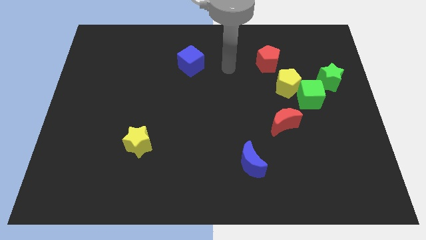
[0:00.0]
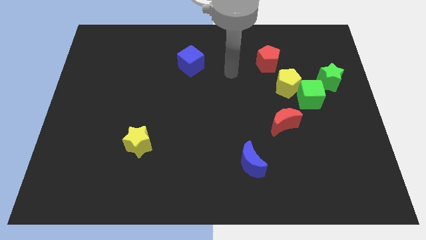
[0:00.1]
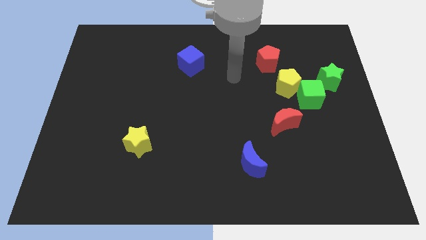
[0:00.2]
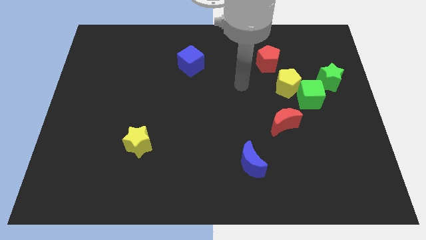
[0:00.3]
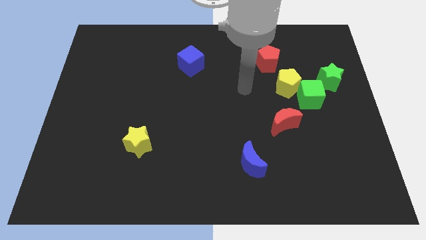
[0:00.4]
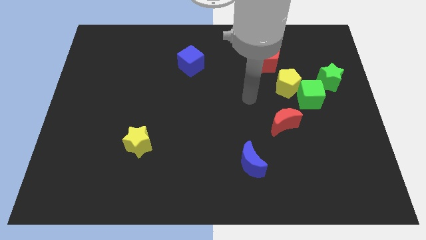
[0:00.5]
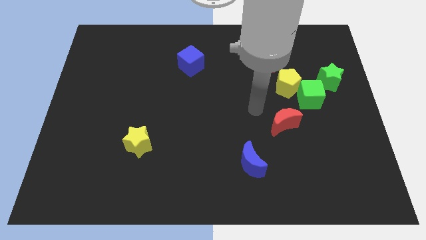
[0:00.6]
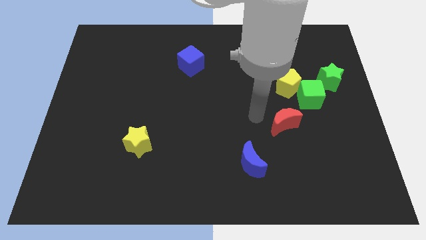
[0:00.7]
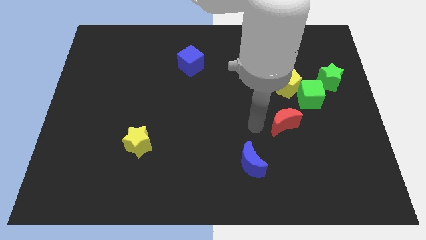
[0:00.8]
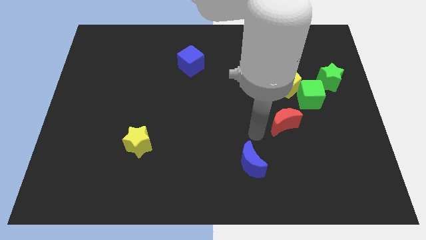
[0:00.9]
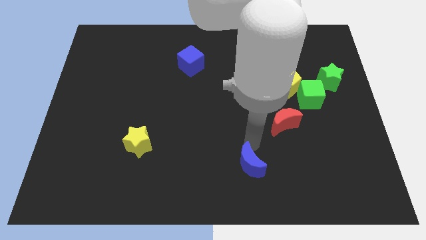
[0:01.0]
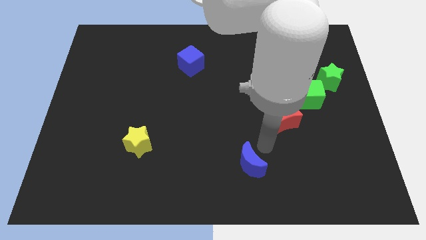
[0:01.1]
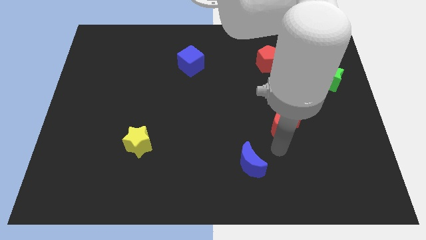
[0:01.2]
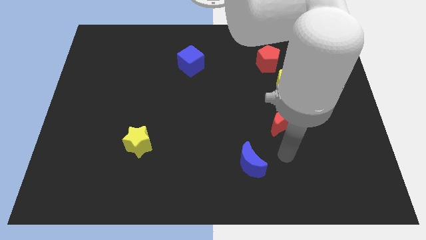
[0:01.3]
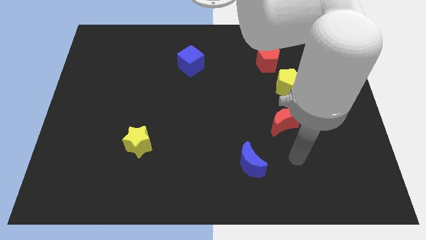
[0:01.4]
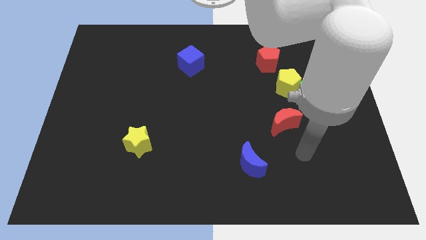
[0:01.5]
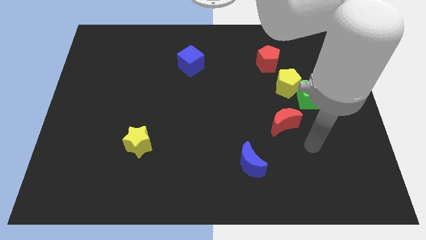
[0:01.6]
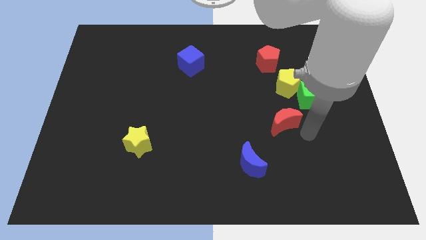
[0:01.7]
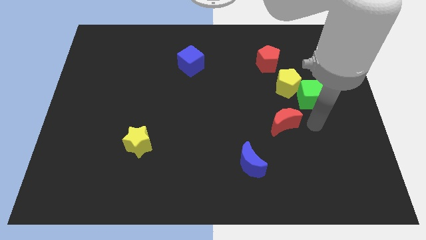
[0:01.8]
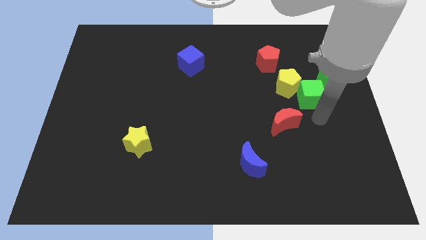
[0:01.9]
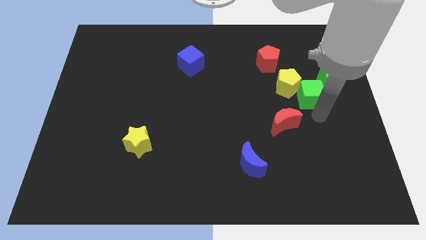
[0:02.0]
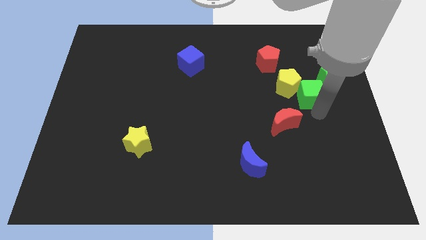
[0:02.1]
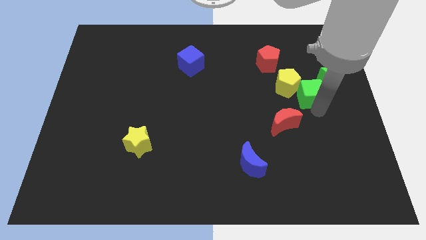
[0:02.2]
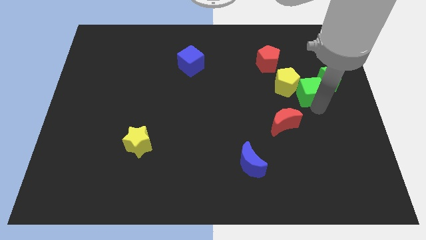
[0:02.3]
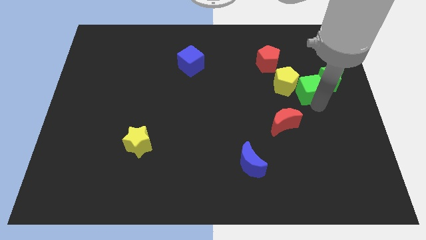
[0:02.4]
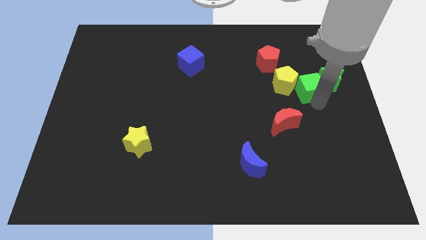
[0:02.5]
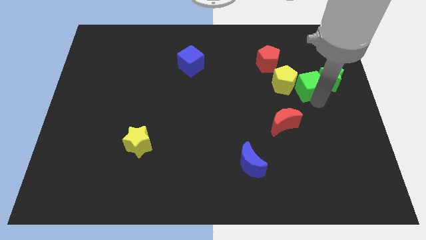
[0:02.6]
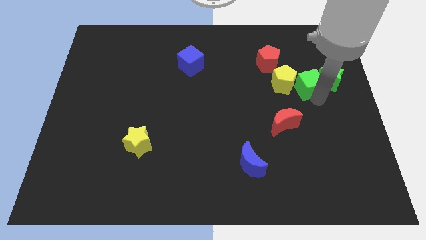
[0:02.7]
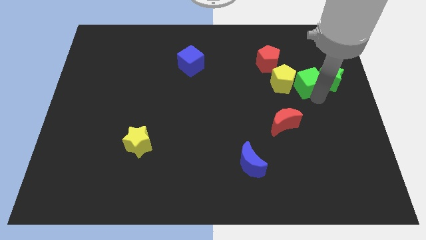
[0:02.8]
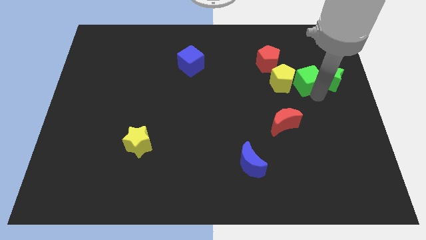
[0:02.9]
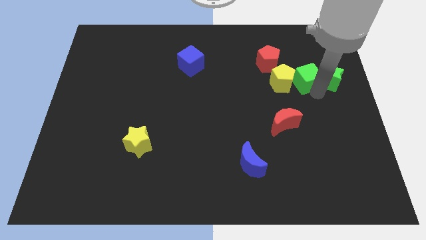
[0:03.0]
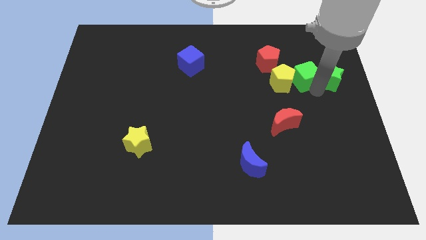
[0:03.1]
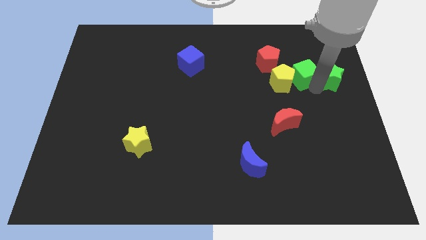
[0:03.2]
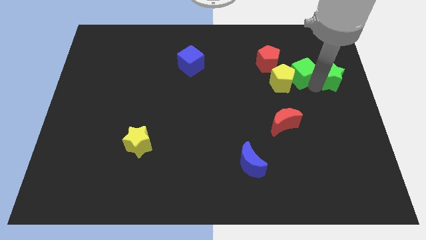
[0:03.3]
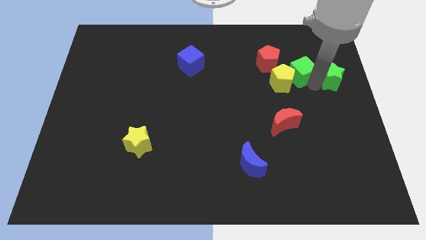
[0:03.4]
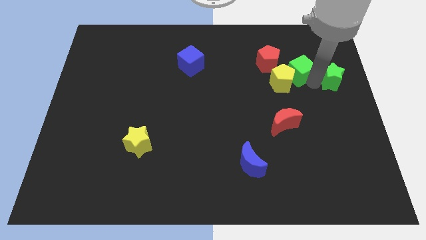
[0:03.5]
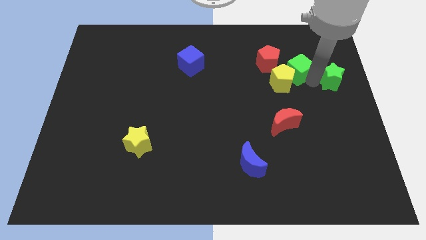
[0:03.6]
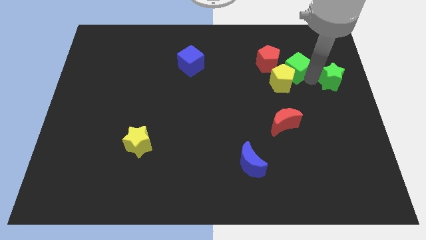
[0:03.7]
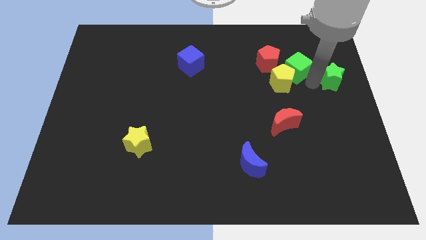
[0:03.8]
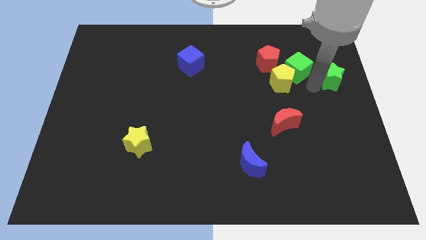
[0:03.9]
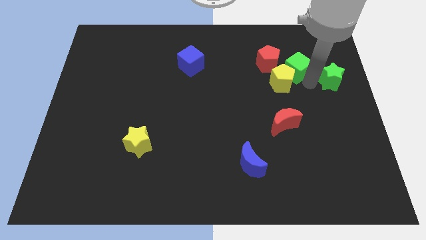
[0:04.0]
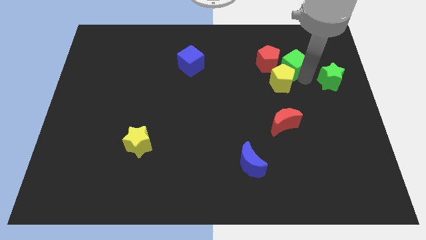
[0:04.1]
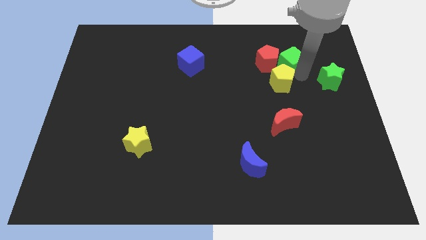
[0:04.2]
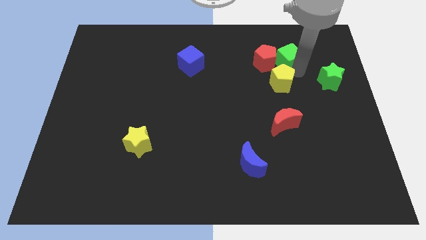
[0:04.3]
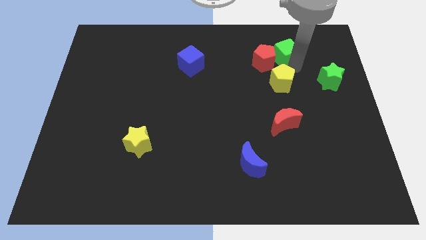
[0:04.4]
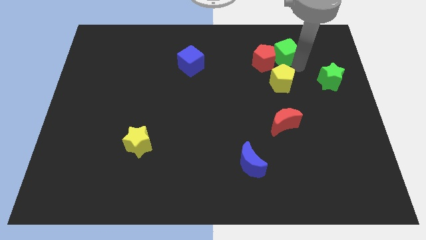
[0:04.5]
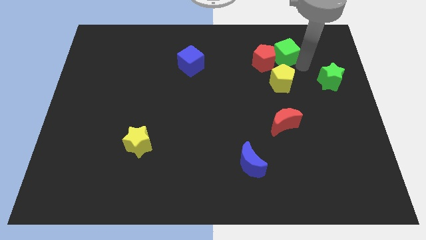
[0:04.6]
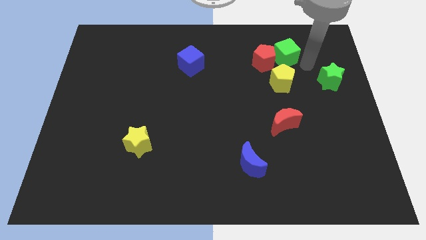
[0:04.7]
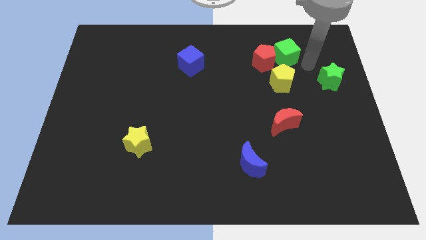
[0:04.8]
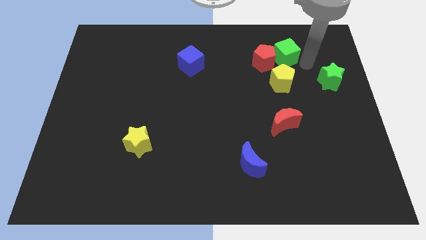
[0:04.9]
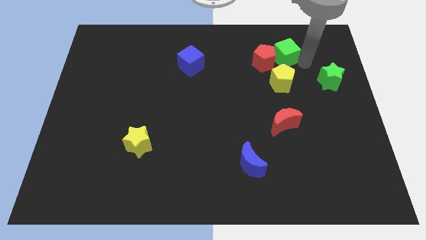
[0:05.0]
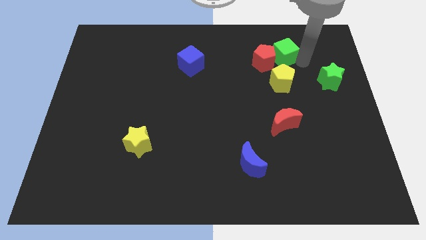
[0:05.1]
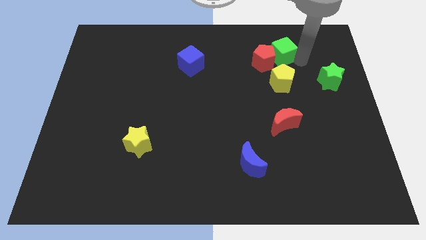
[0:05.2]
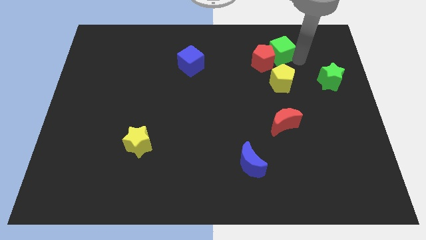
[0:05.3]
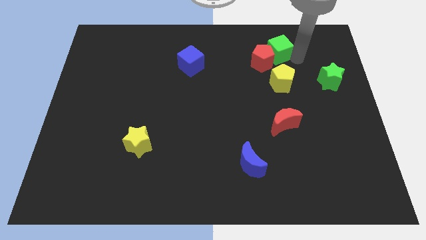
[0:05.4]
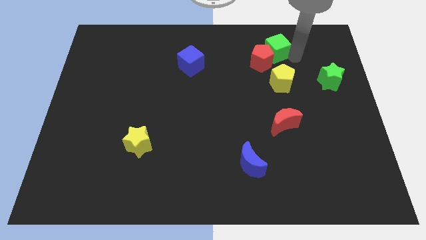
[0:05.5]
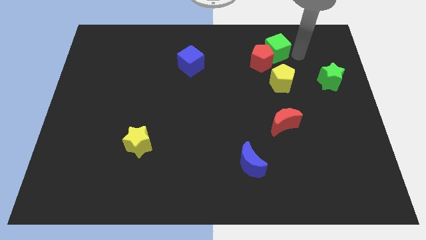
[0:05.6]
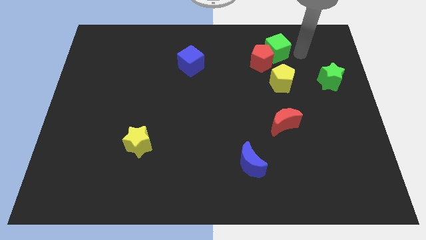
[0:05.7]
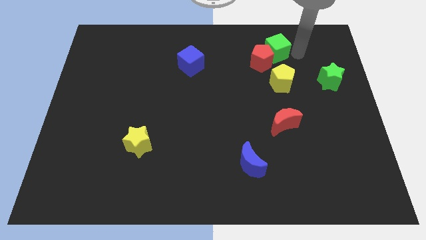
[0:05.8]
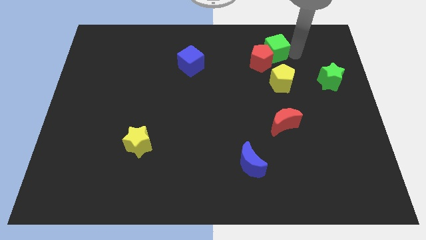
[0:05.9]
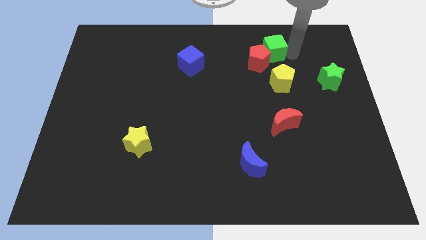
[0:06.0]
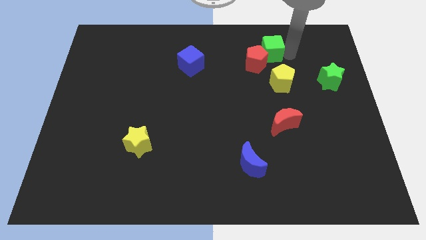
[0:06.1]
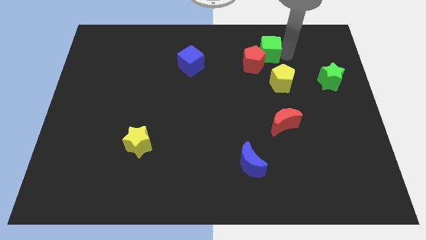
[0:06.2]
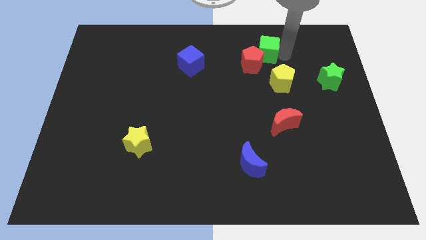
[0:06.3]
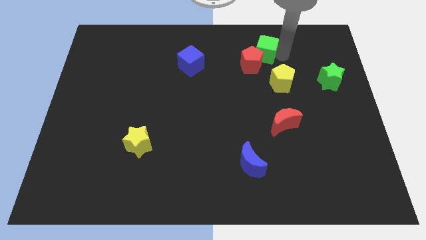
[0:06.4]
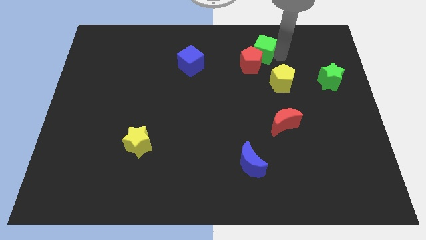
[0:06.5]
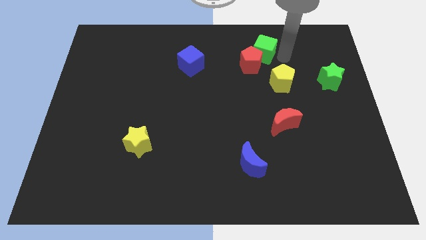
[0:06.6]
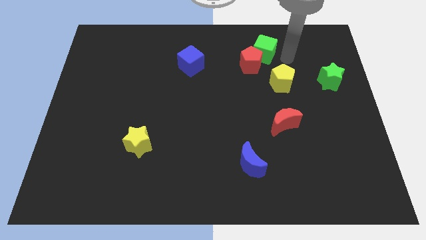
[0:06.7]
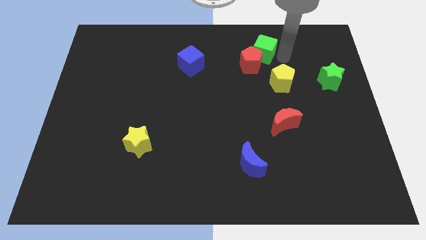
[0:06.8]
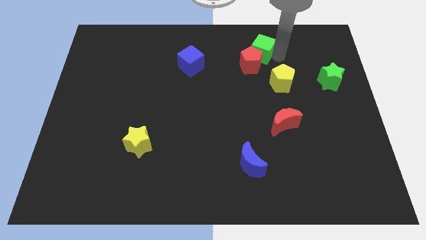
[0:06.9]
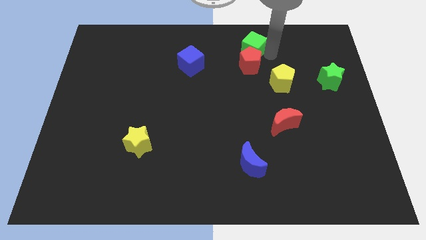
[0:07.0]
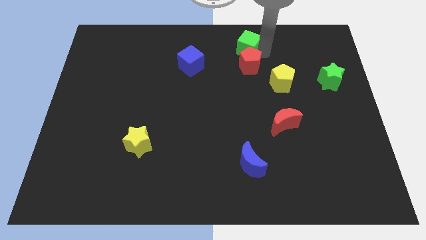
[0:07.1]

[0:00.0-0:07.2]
slide the green cube to the towards your base

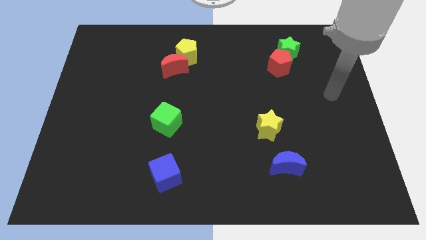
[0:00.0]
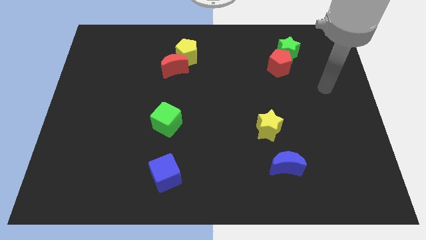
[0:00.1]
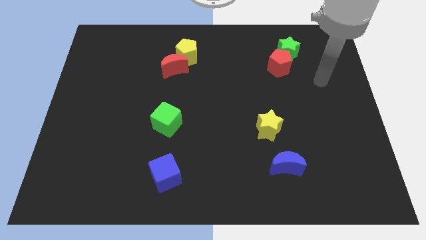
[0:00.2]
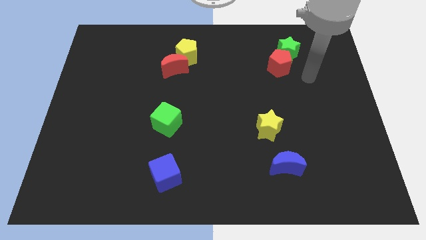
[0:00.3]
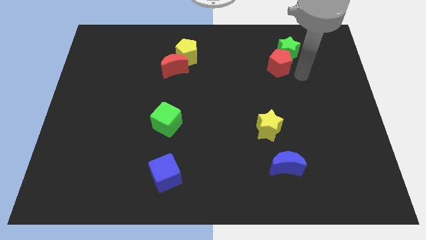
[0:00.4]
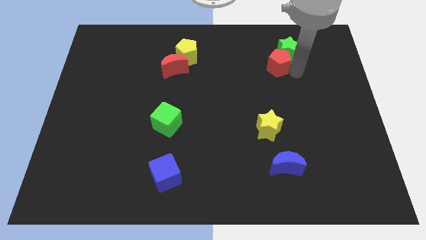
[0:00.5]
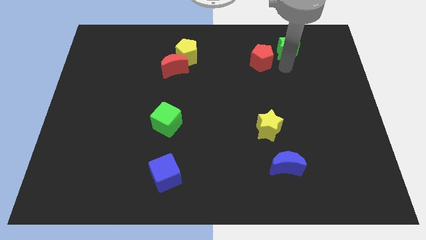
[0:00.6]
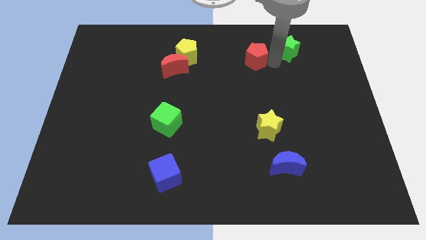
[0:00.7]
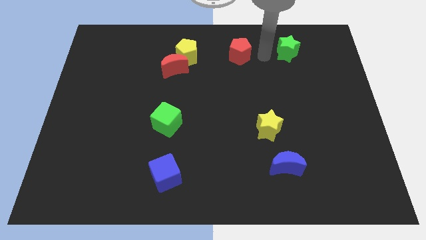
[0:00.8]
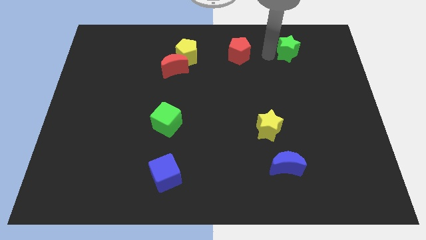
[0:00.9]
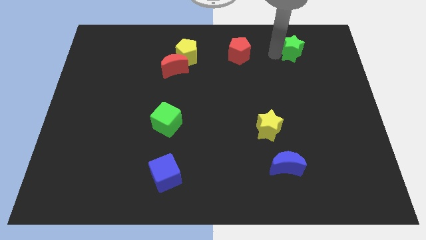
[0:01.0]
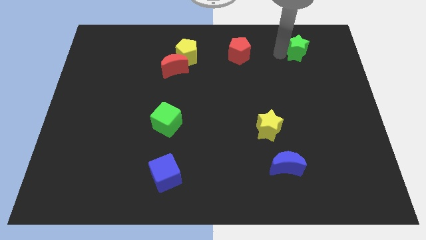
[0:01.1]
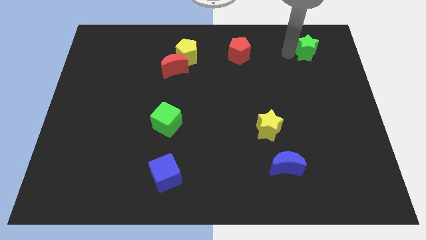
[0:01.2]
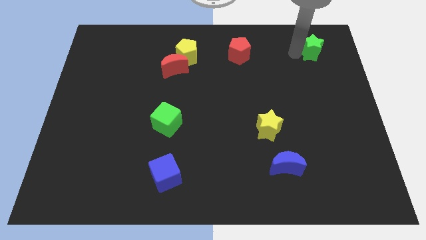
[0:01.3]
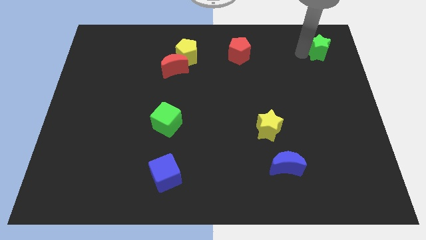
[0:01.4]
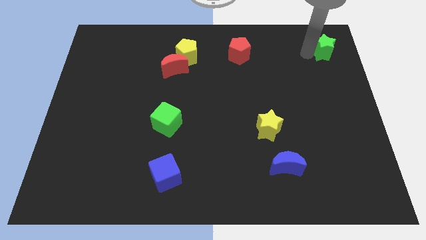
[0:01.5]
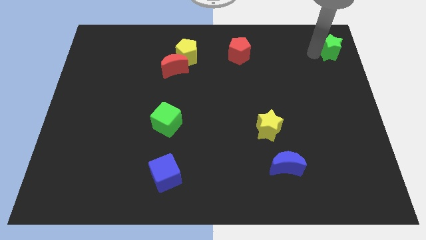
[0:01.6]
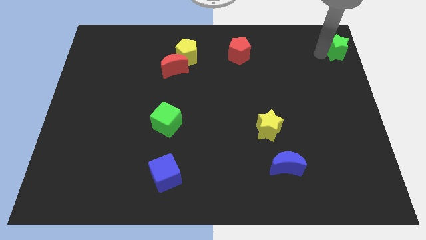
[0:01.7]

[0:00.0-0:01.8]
push the green star to the top right corner
